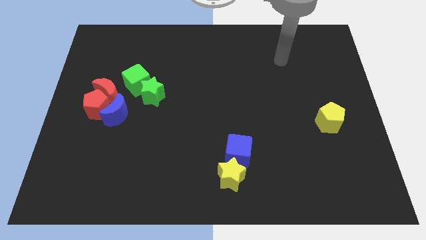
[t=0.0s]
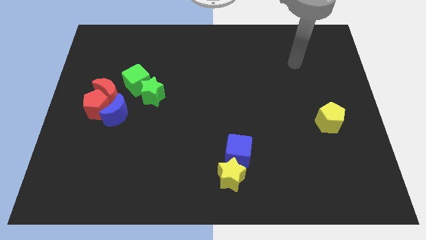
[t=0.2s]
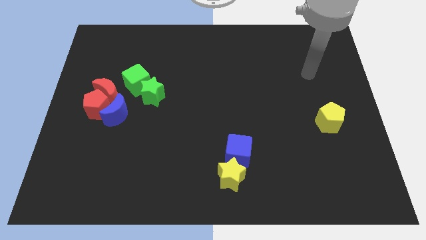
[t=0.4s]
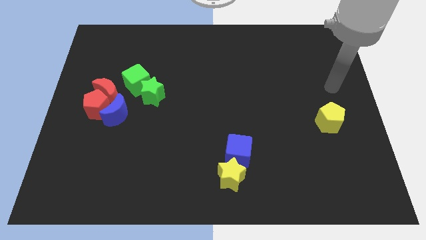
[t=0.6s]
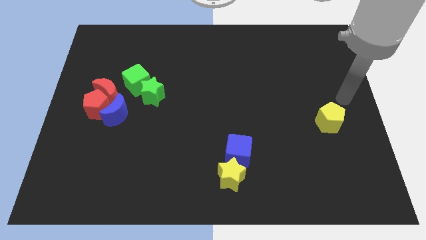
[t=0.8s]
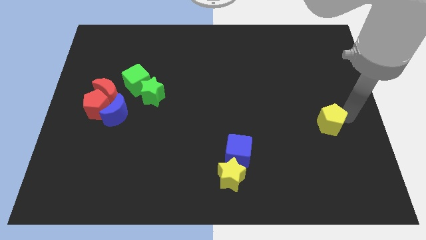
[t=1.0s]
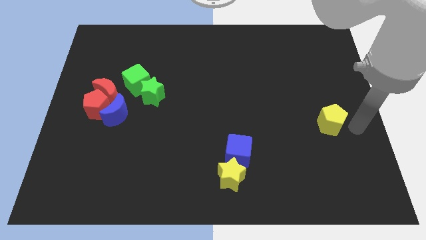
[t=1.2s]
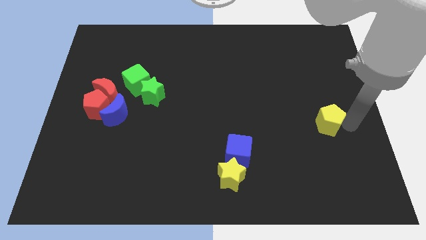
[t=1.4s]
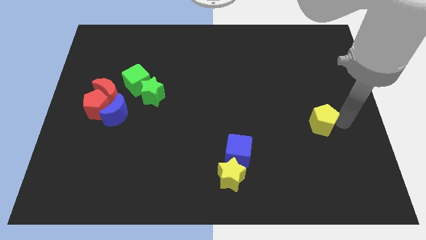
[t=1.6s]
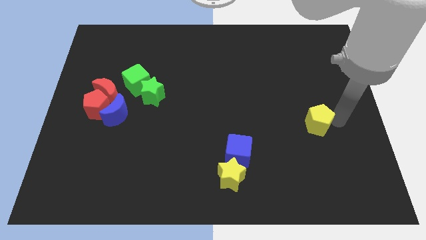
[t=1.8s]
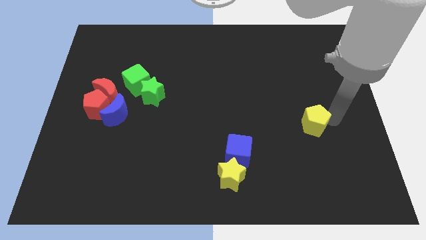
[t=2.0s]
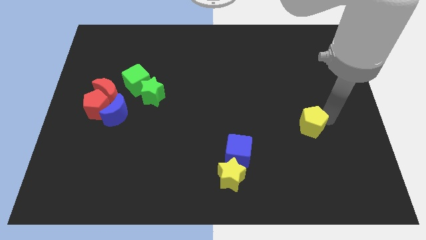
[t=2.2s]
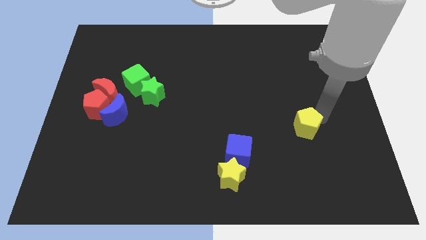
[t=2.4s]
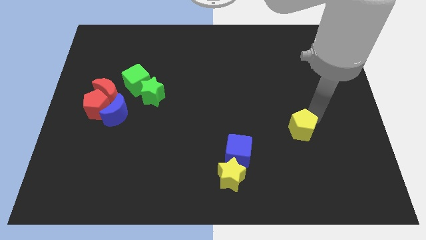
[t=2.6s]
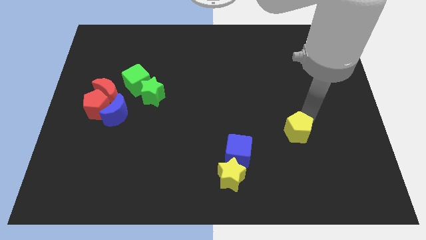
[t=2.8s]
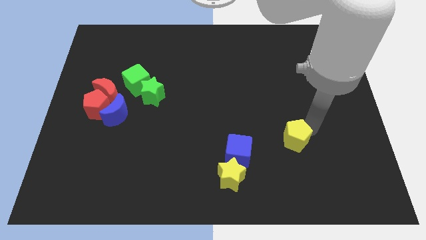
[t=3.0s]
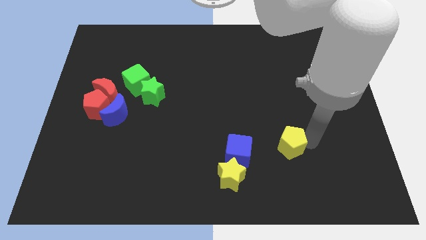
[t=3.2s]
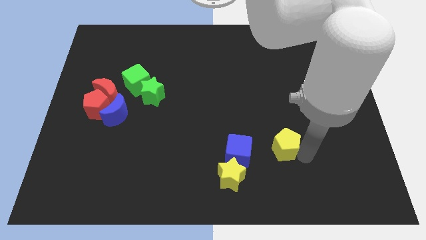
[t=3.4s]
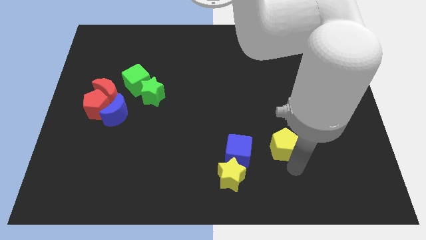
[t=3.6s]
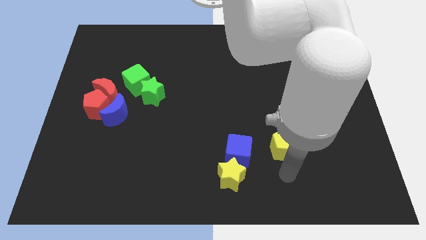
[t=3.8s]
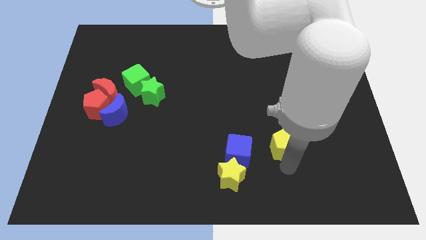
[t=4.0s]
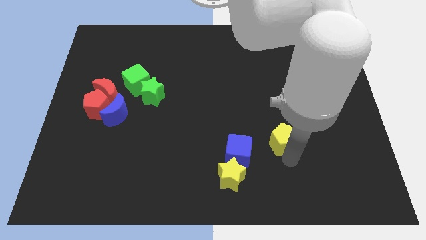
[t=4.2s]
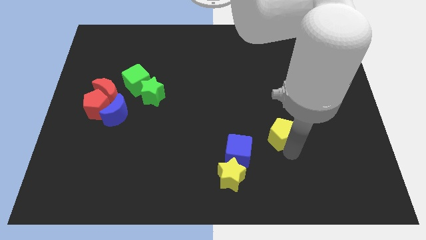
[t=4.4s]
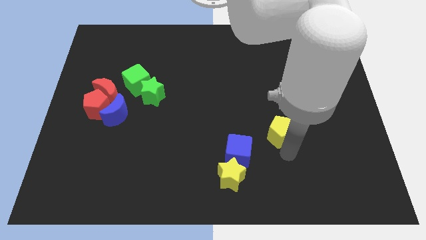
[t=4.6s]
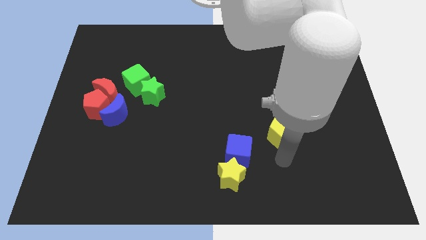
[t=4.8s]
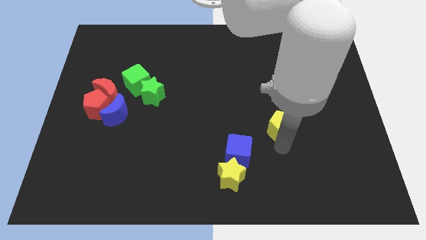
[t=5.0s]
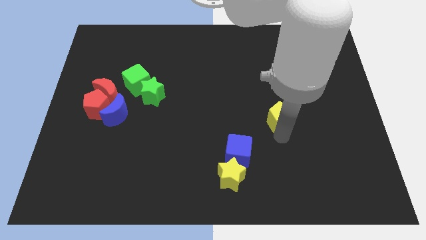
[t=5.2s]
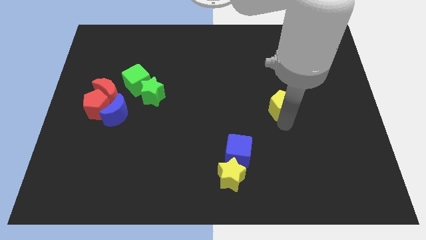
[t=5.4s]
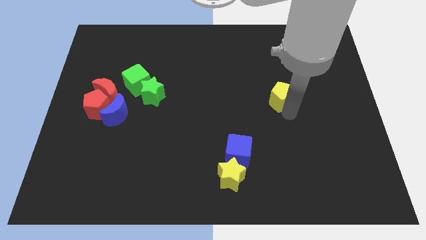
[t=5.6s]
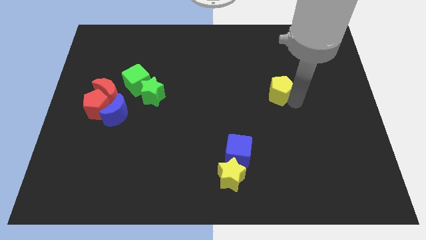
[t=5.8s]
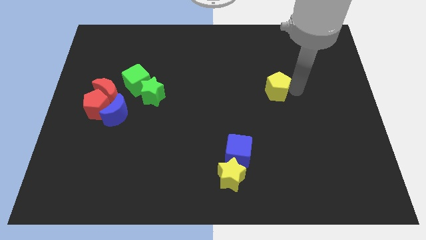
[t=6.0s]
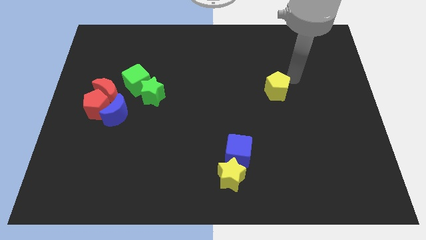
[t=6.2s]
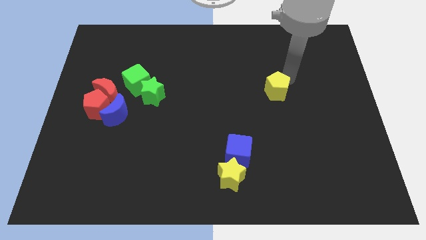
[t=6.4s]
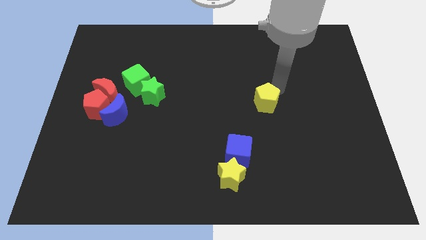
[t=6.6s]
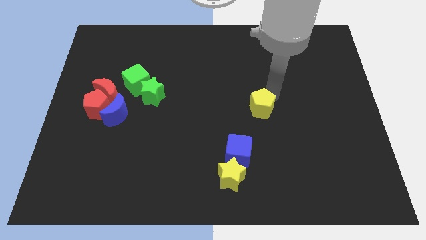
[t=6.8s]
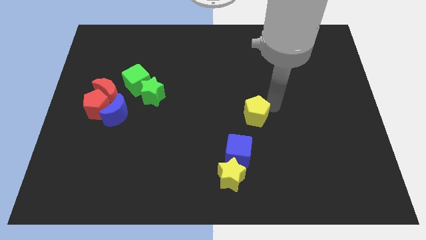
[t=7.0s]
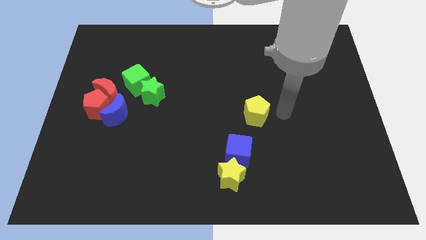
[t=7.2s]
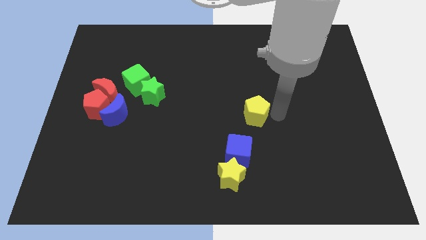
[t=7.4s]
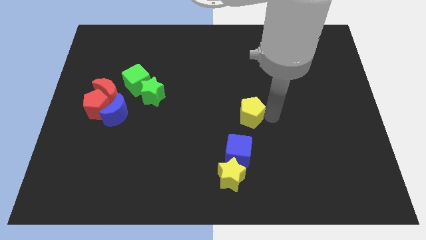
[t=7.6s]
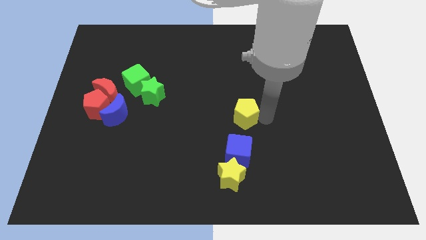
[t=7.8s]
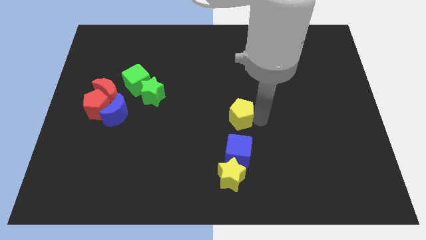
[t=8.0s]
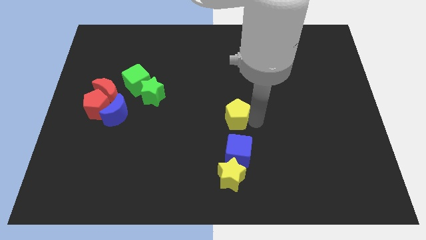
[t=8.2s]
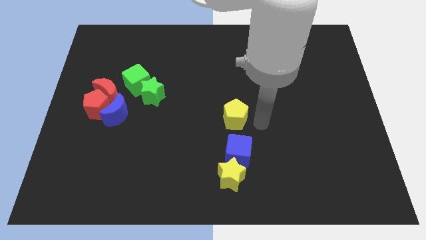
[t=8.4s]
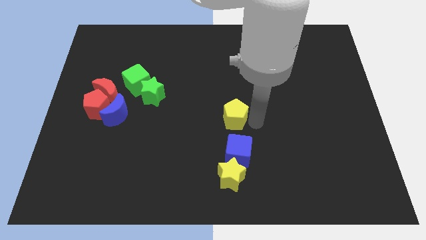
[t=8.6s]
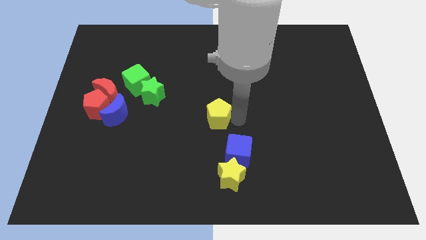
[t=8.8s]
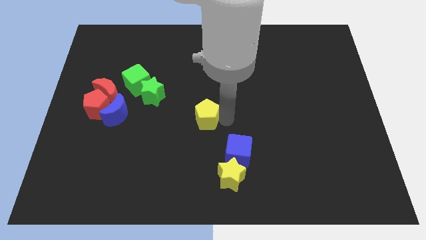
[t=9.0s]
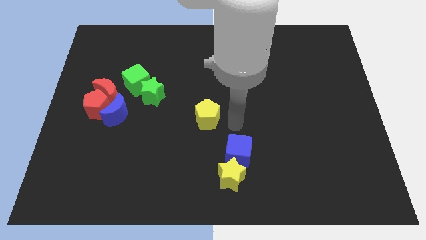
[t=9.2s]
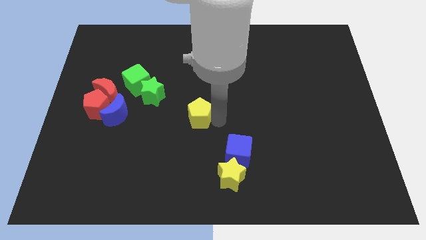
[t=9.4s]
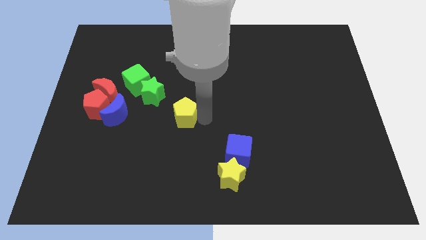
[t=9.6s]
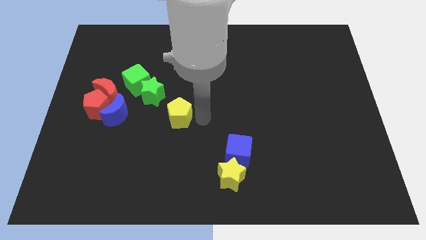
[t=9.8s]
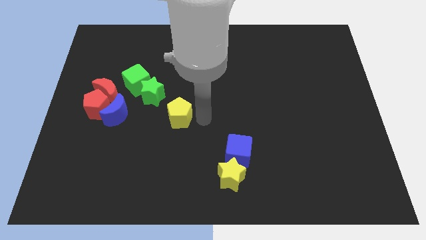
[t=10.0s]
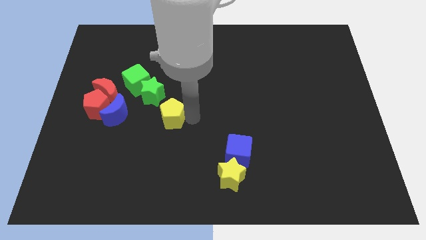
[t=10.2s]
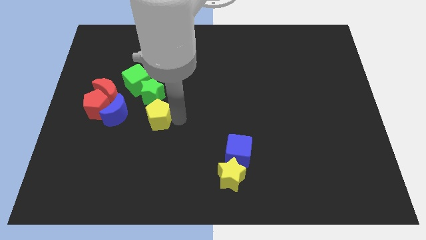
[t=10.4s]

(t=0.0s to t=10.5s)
push the yellow pentagon to the right of the red pentagon

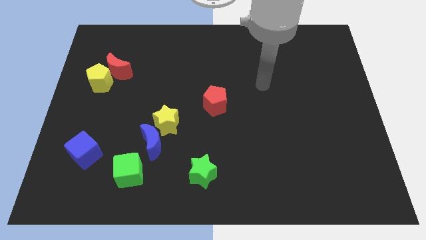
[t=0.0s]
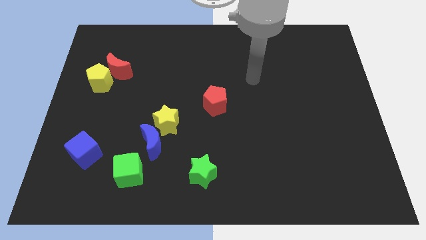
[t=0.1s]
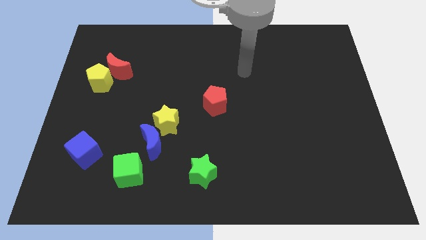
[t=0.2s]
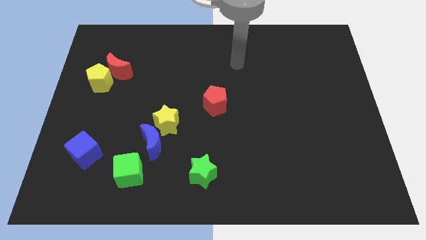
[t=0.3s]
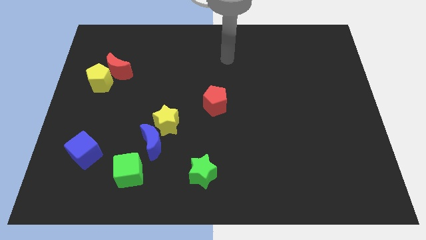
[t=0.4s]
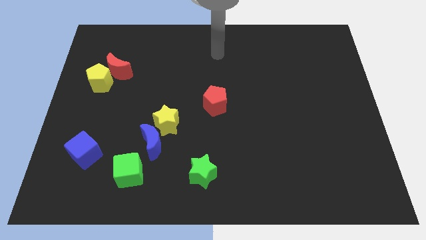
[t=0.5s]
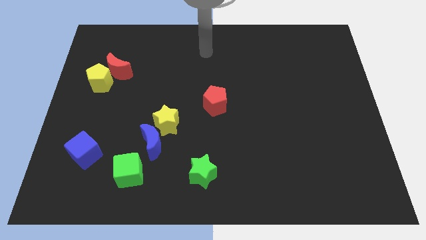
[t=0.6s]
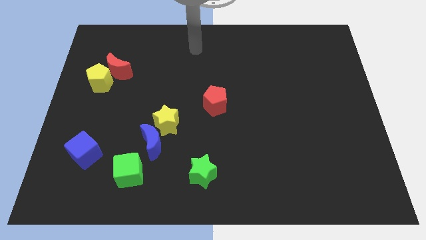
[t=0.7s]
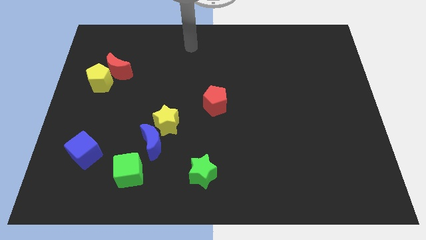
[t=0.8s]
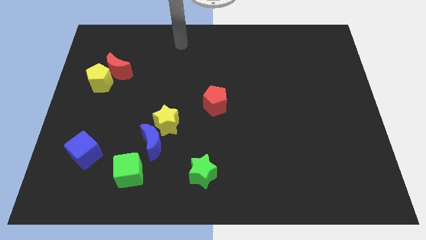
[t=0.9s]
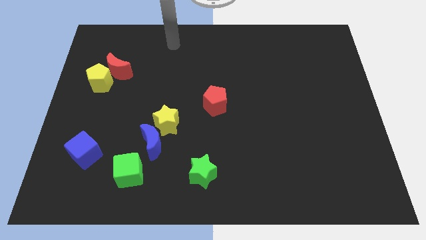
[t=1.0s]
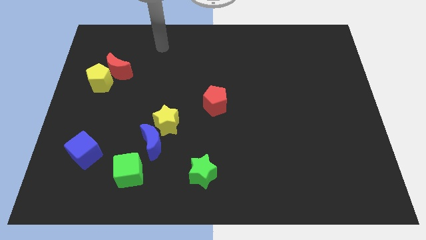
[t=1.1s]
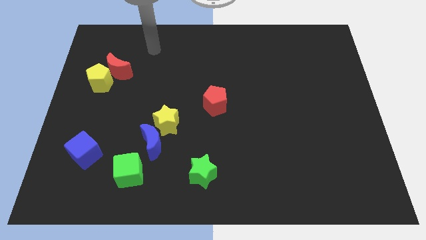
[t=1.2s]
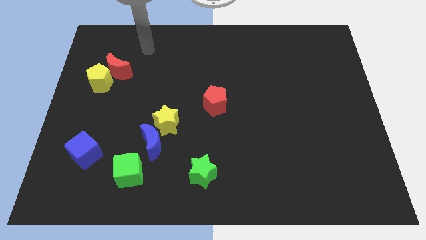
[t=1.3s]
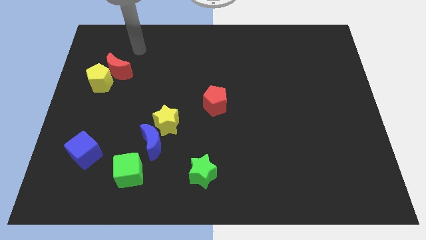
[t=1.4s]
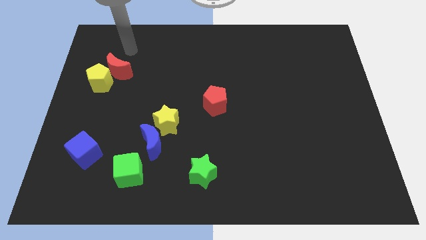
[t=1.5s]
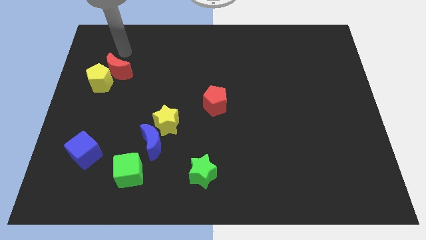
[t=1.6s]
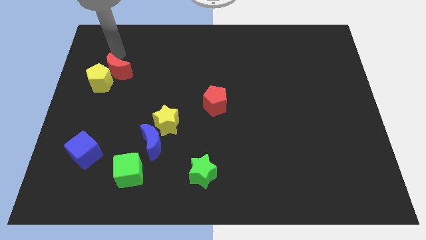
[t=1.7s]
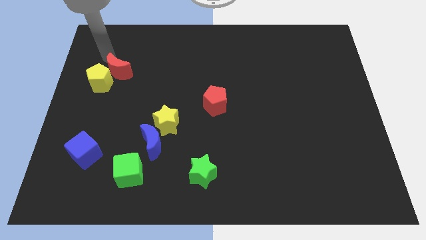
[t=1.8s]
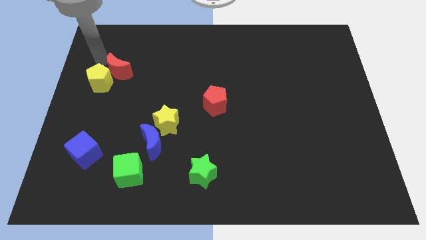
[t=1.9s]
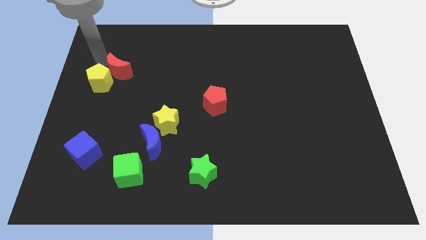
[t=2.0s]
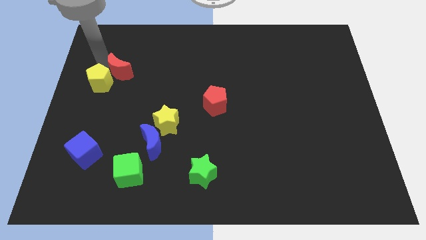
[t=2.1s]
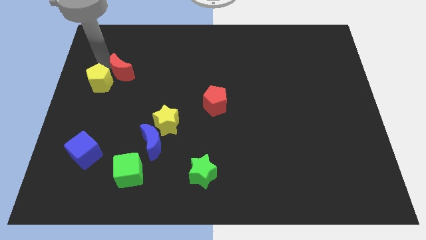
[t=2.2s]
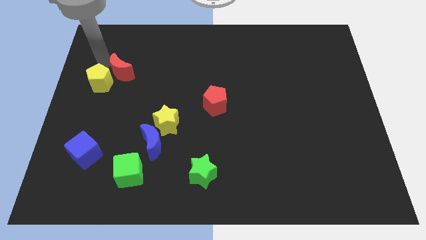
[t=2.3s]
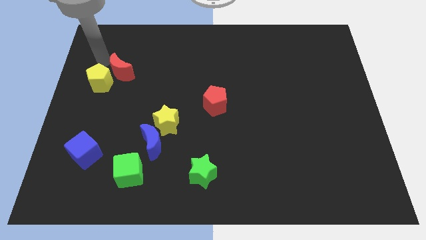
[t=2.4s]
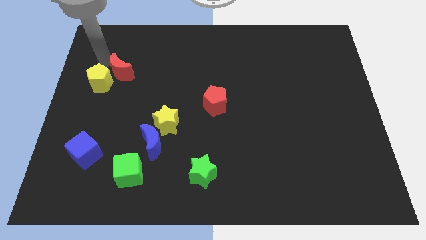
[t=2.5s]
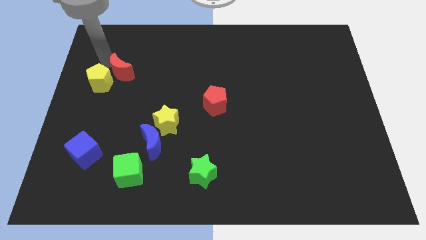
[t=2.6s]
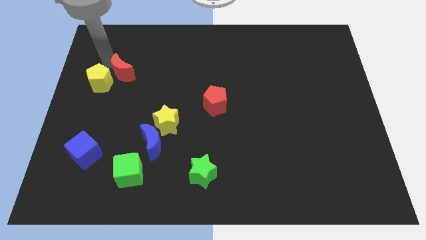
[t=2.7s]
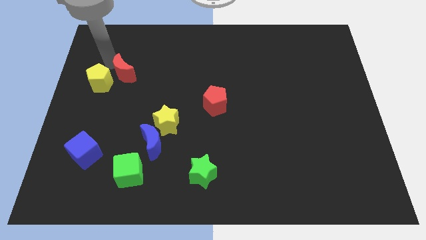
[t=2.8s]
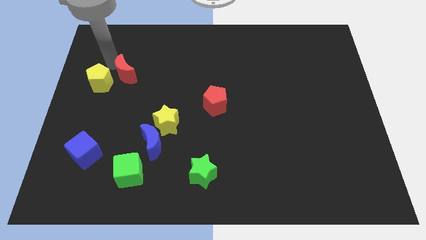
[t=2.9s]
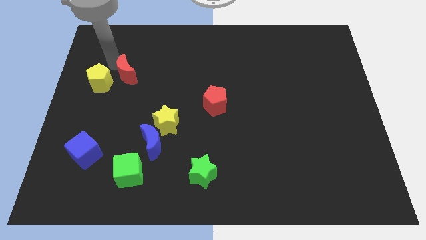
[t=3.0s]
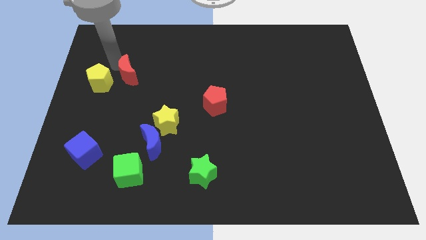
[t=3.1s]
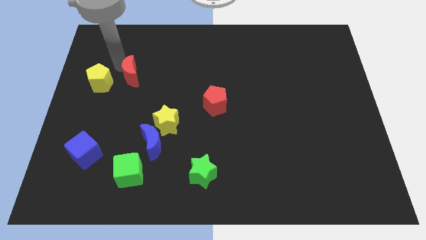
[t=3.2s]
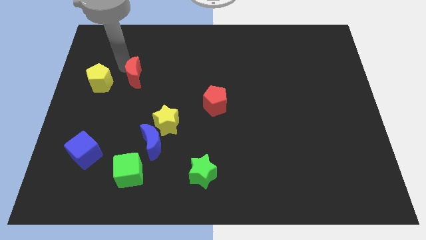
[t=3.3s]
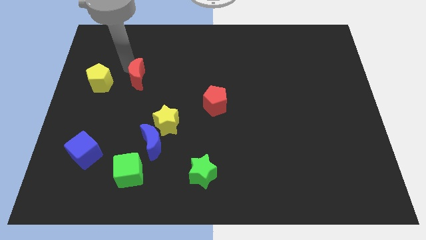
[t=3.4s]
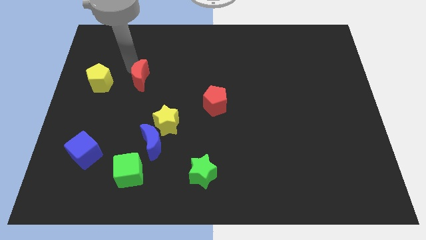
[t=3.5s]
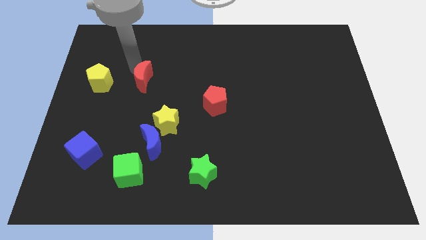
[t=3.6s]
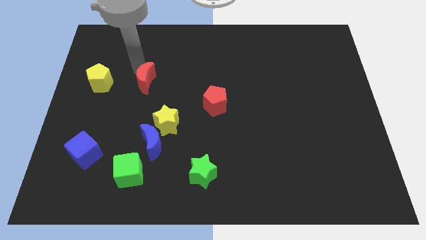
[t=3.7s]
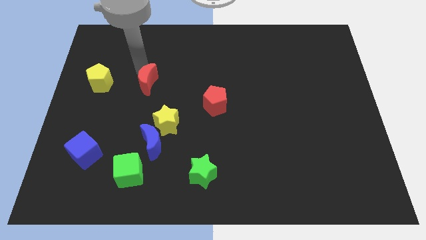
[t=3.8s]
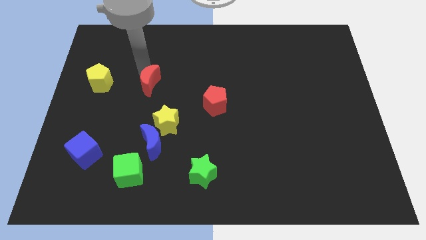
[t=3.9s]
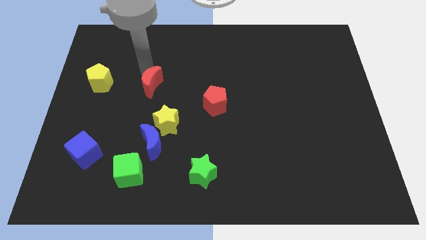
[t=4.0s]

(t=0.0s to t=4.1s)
slide the red moon above the yellow star
